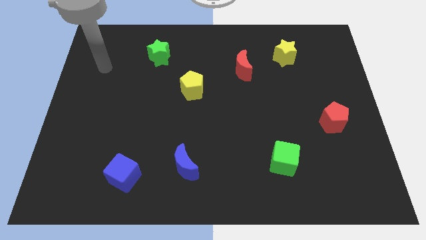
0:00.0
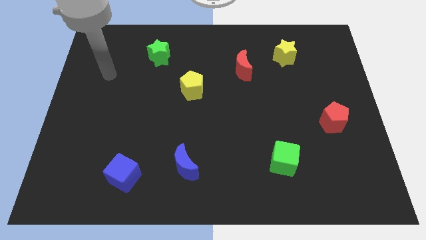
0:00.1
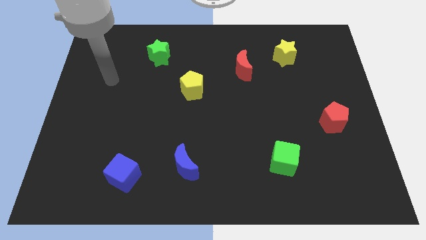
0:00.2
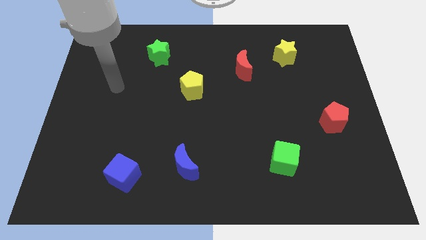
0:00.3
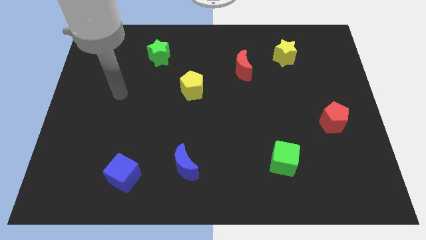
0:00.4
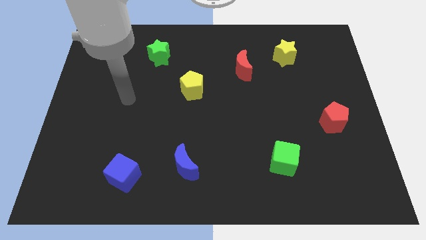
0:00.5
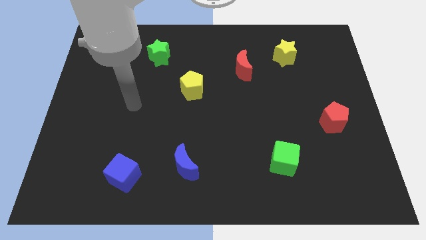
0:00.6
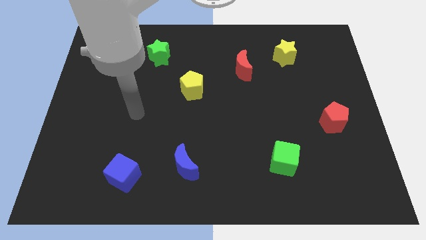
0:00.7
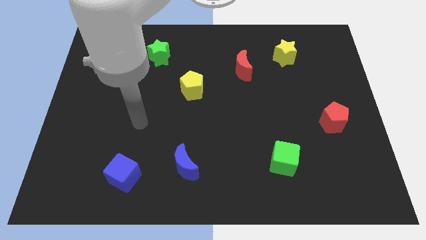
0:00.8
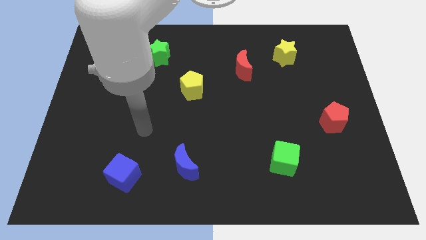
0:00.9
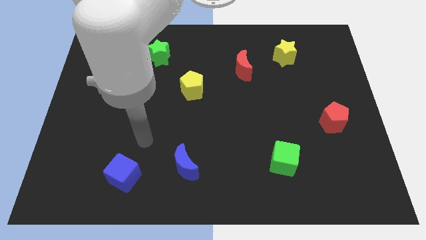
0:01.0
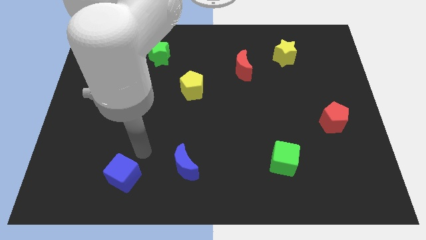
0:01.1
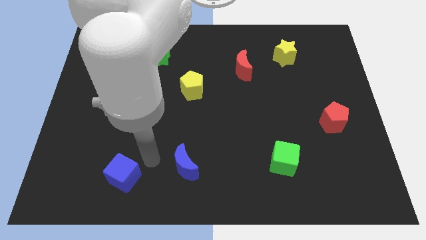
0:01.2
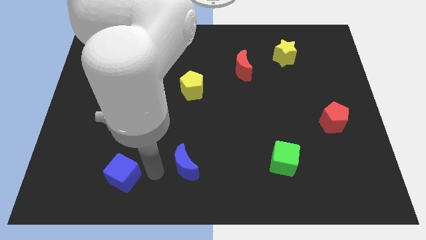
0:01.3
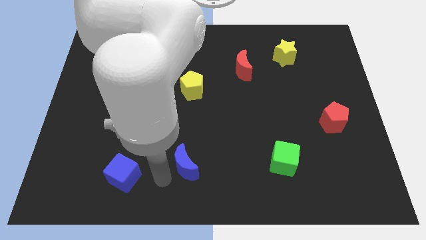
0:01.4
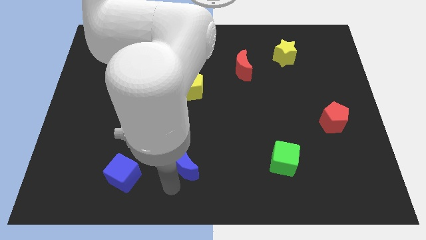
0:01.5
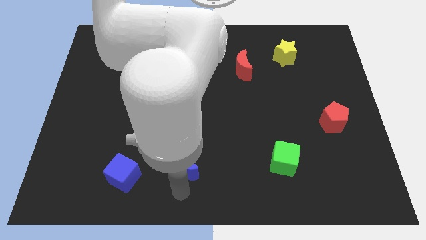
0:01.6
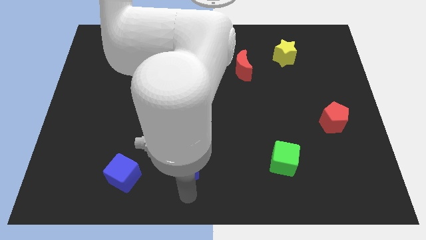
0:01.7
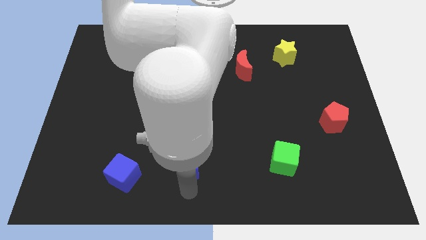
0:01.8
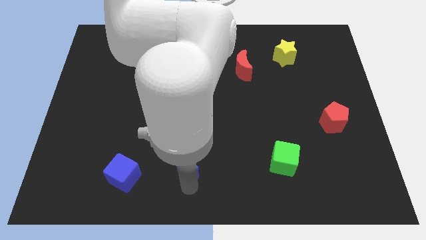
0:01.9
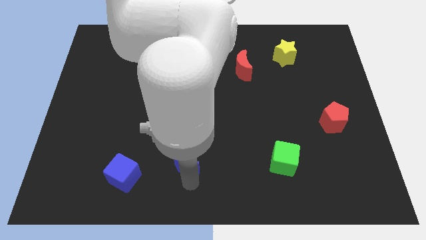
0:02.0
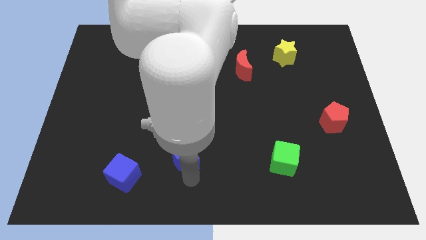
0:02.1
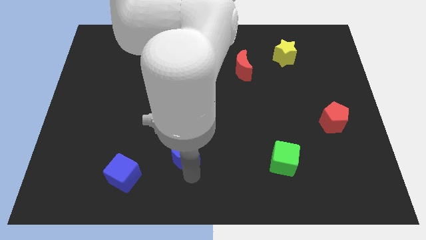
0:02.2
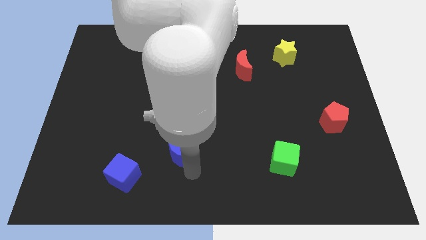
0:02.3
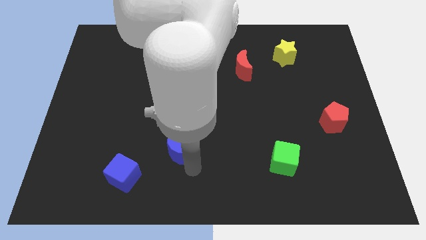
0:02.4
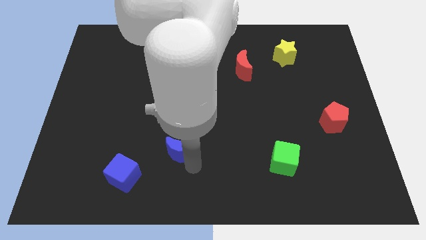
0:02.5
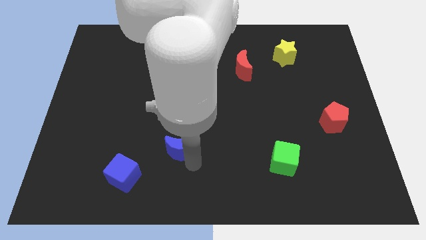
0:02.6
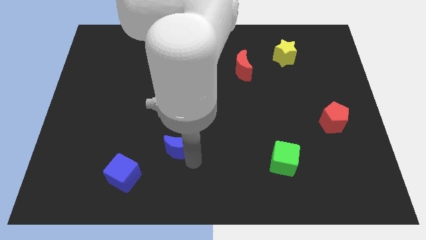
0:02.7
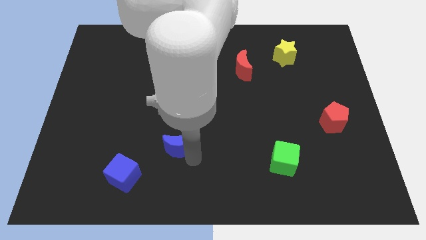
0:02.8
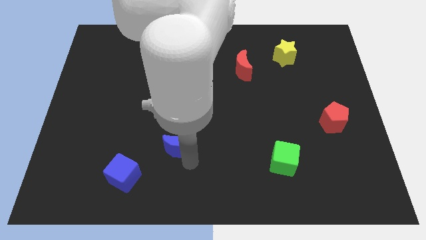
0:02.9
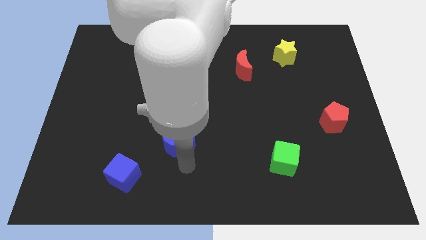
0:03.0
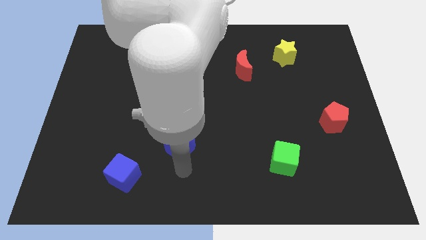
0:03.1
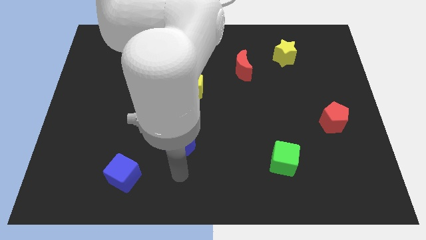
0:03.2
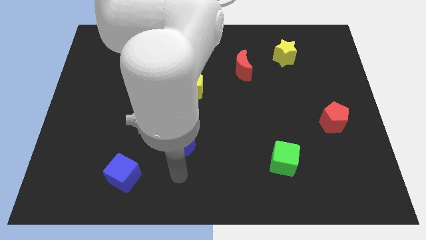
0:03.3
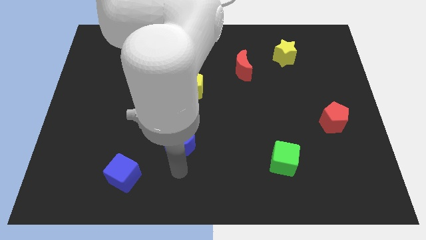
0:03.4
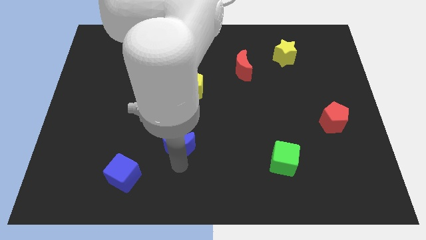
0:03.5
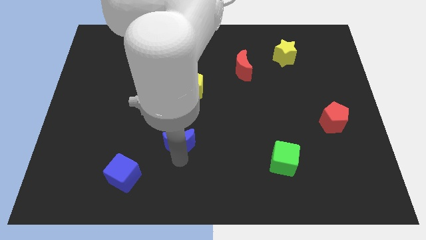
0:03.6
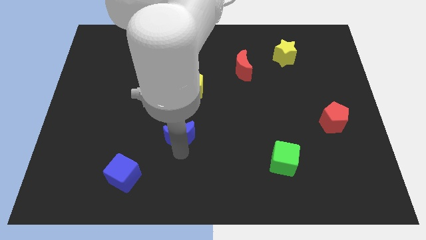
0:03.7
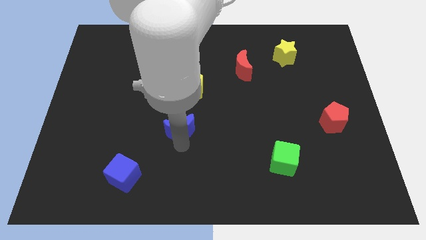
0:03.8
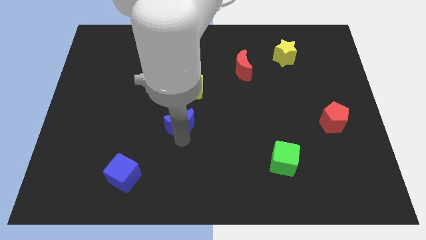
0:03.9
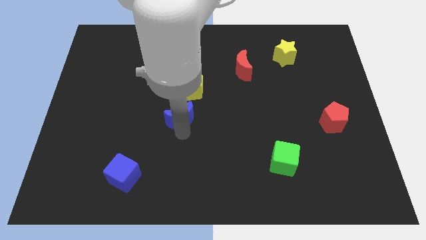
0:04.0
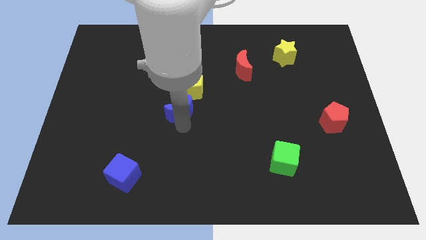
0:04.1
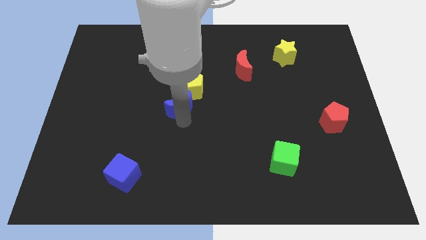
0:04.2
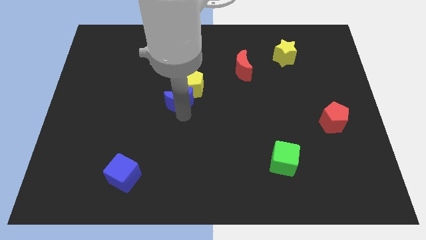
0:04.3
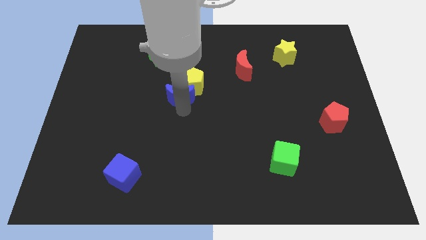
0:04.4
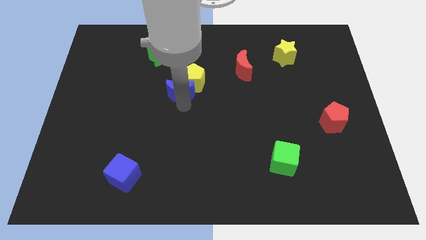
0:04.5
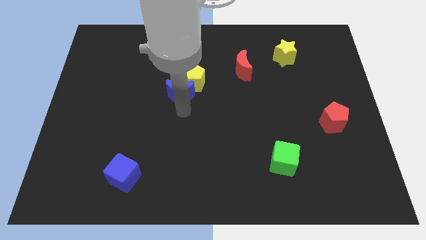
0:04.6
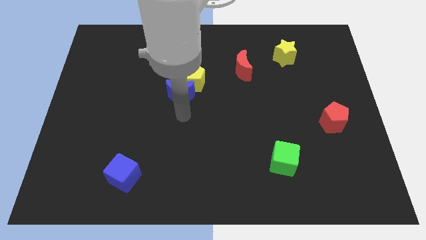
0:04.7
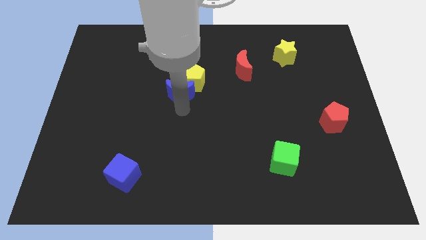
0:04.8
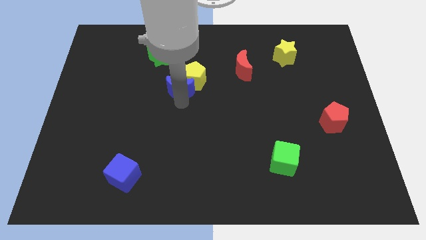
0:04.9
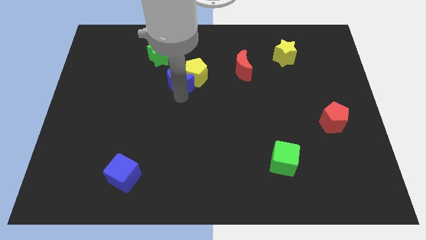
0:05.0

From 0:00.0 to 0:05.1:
push the blue moon to the bottom right side of the green star

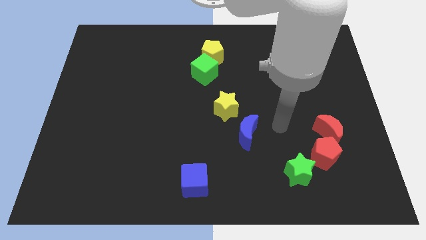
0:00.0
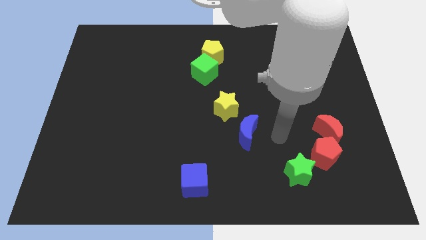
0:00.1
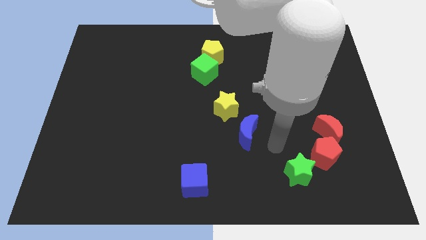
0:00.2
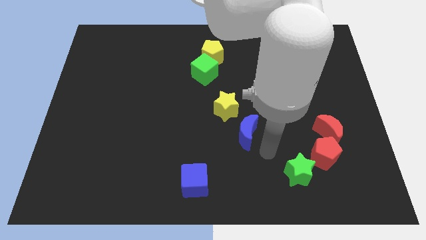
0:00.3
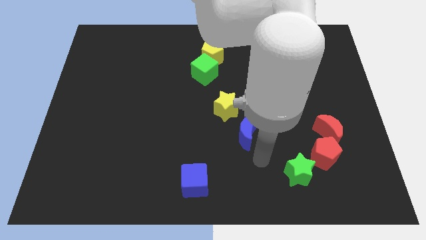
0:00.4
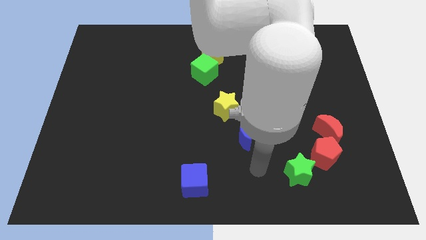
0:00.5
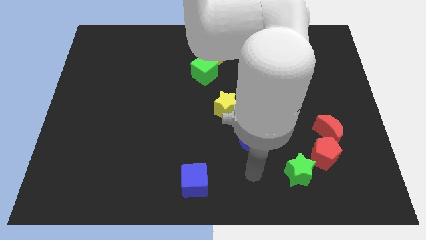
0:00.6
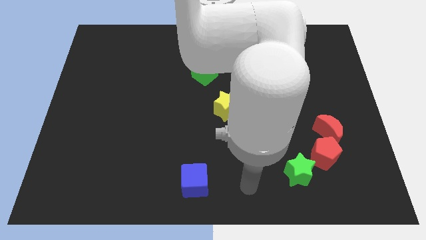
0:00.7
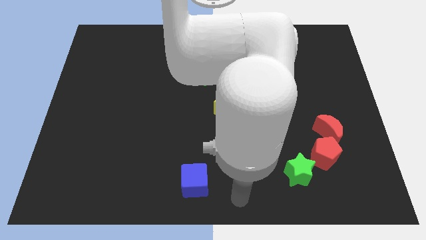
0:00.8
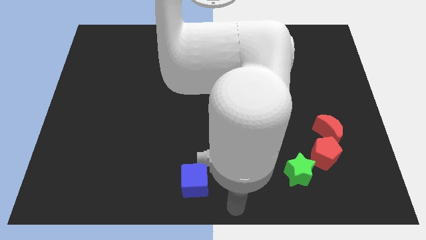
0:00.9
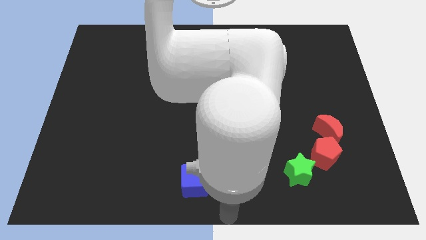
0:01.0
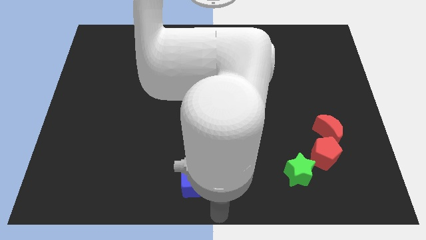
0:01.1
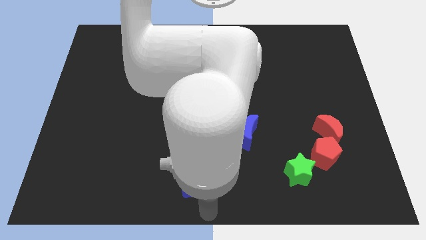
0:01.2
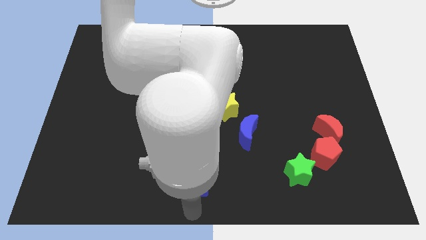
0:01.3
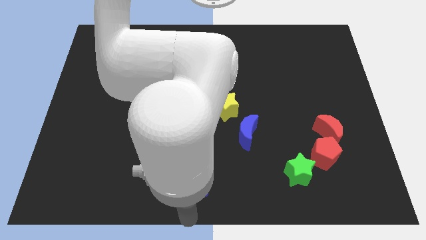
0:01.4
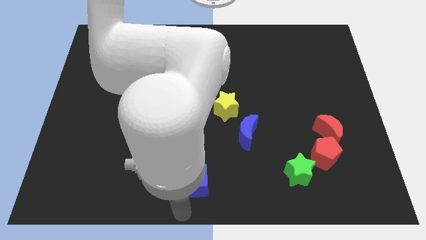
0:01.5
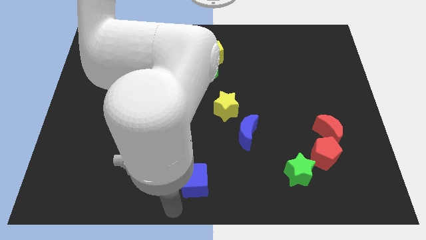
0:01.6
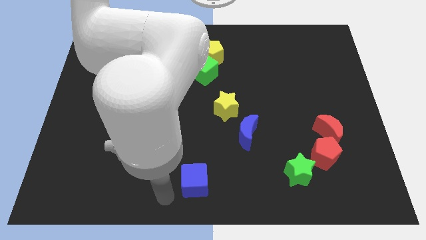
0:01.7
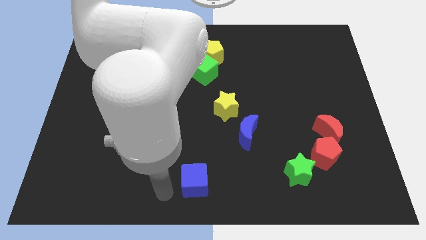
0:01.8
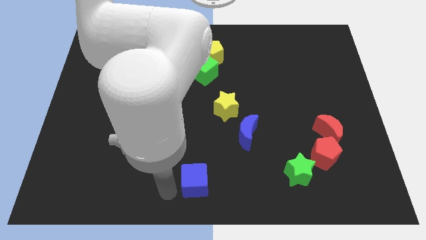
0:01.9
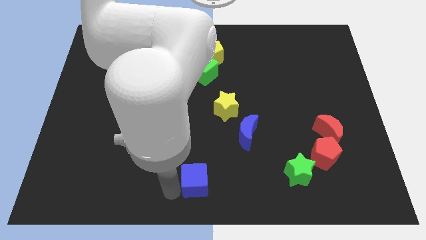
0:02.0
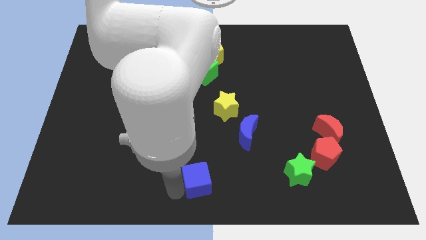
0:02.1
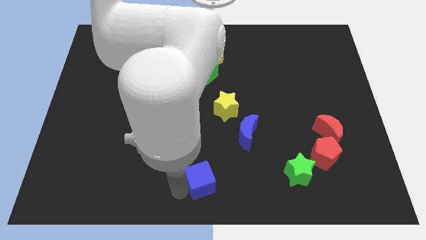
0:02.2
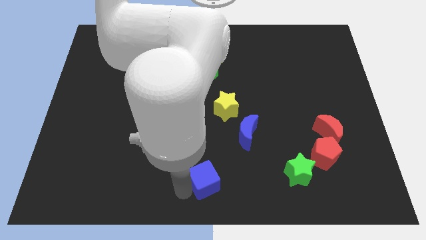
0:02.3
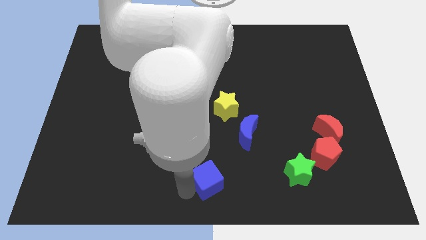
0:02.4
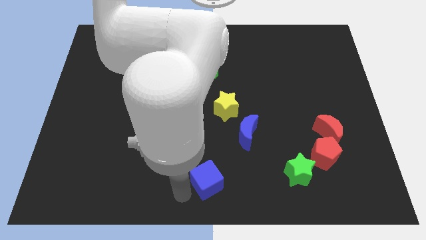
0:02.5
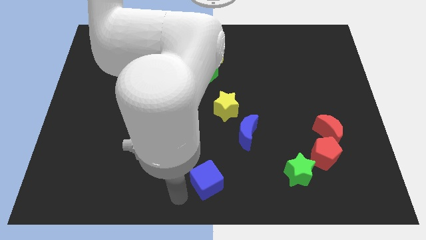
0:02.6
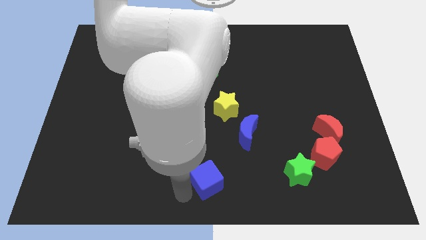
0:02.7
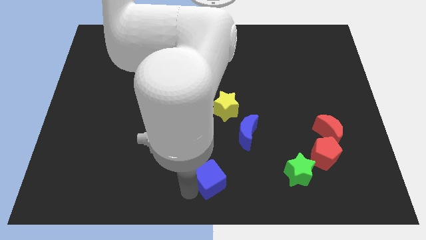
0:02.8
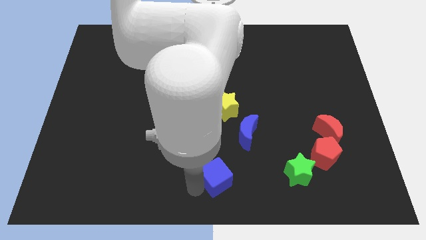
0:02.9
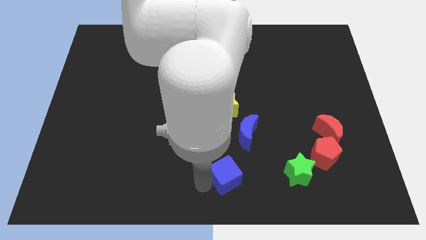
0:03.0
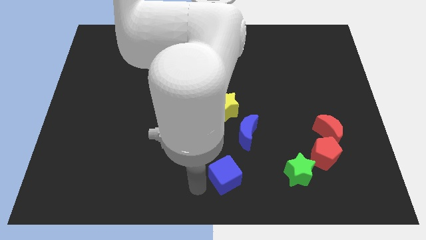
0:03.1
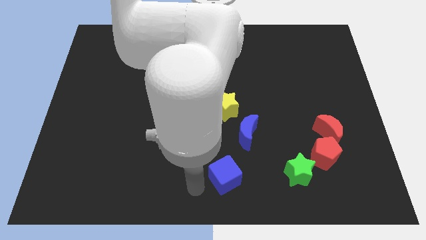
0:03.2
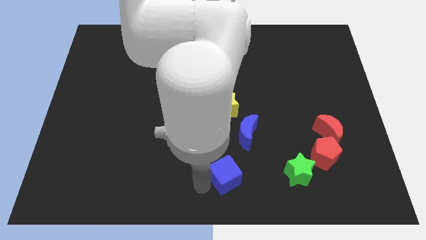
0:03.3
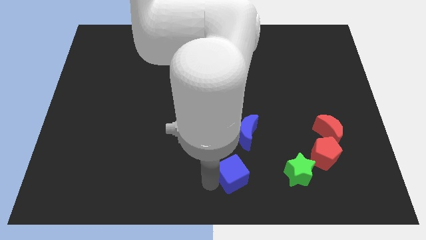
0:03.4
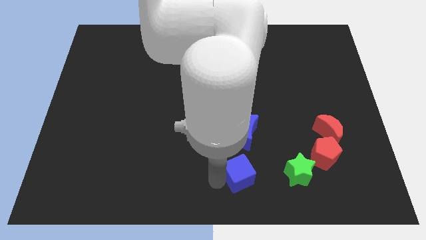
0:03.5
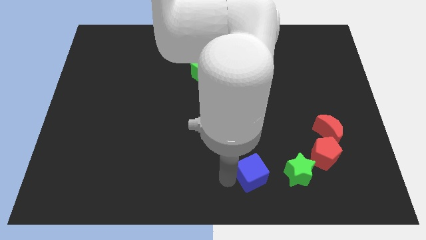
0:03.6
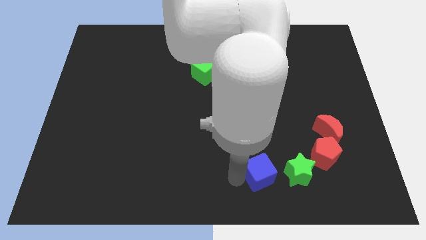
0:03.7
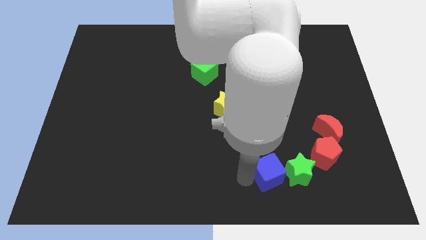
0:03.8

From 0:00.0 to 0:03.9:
push the blue cube to the left of the red pentagon
